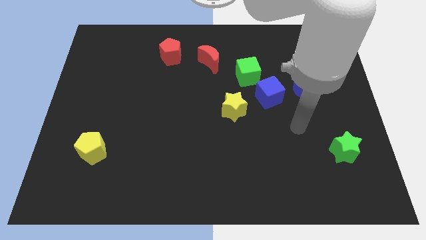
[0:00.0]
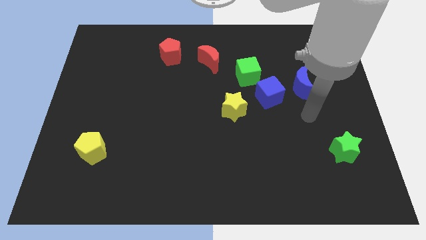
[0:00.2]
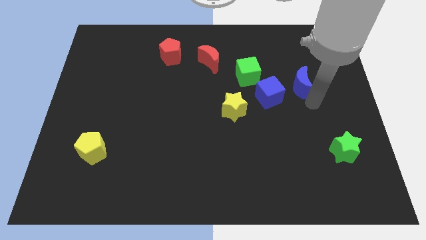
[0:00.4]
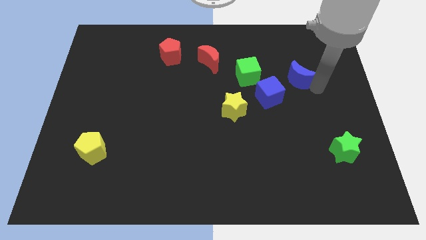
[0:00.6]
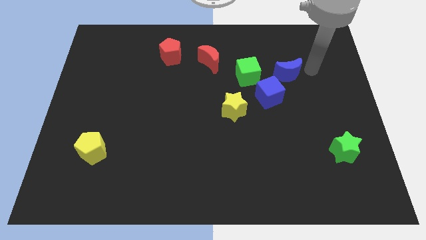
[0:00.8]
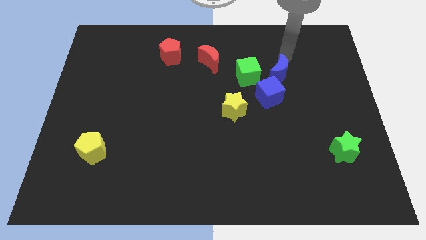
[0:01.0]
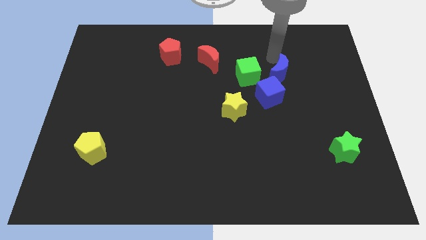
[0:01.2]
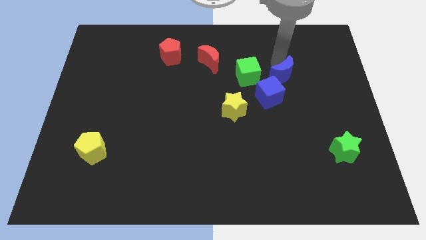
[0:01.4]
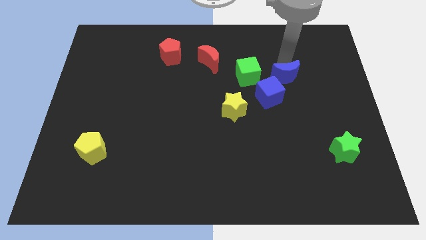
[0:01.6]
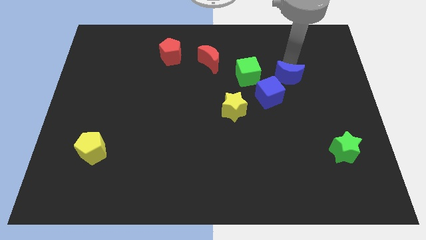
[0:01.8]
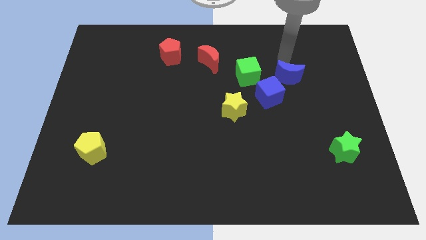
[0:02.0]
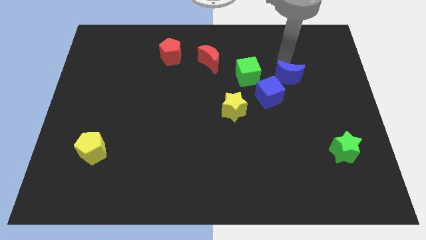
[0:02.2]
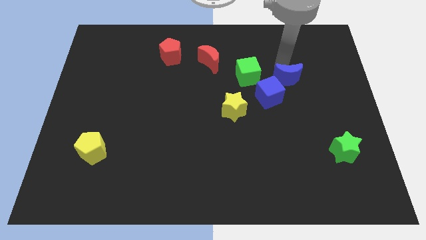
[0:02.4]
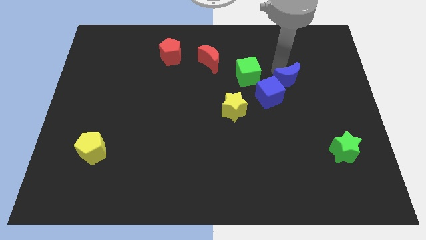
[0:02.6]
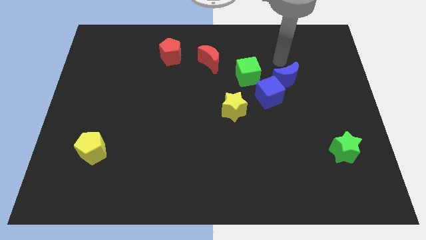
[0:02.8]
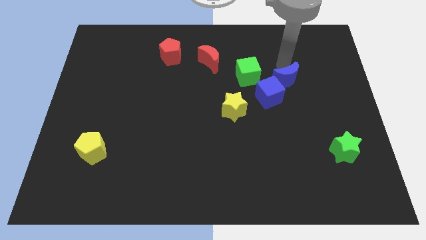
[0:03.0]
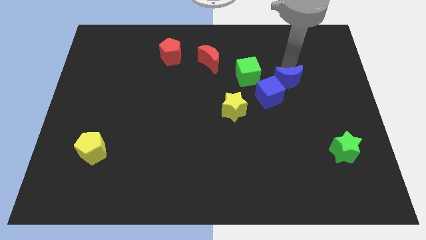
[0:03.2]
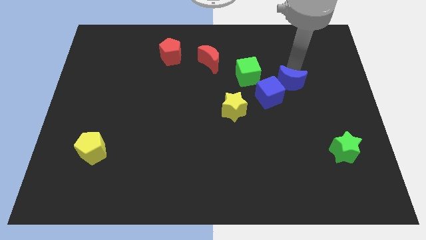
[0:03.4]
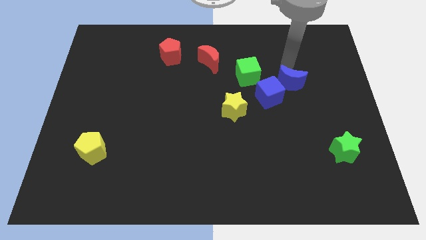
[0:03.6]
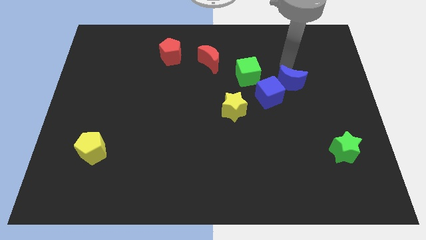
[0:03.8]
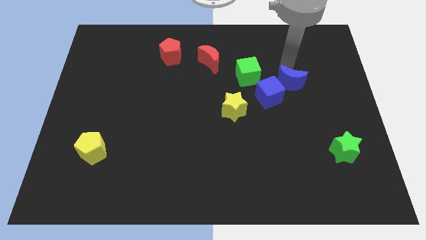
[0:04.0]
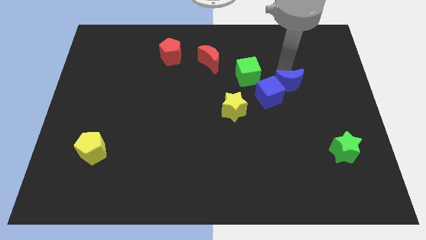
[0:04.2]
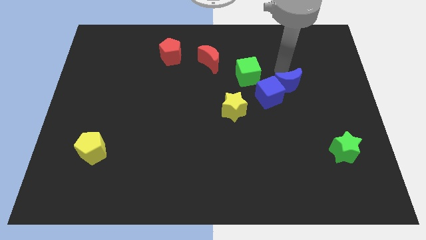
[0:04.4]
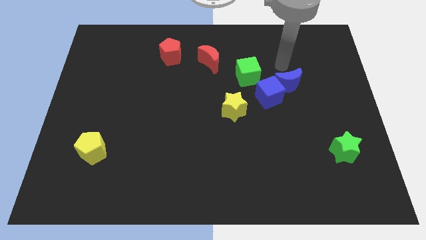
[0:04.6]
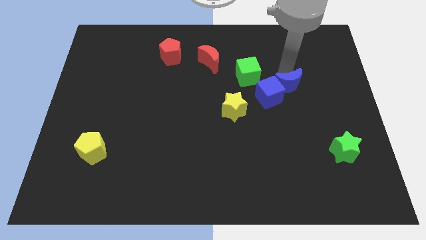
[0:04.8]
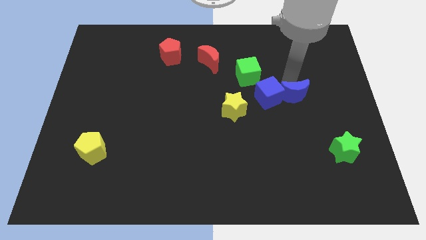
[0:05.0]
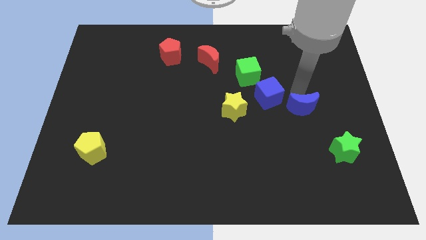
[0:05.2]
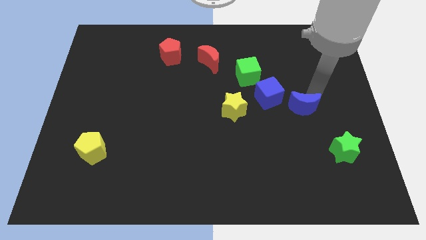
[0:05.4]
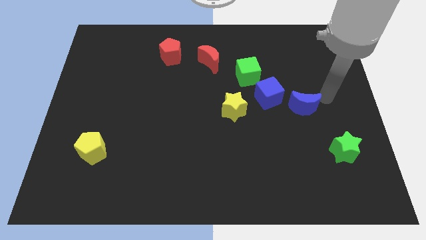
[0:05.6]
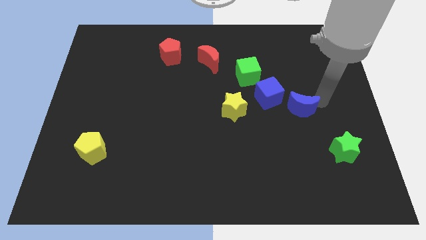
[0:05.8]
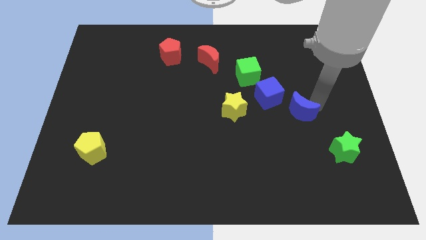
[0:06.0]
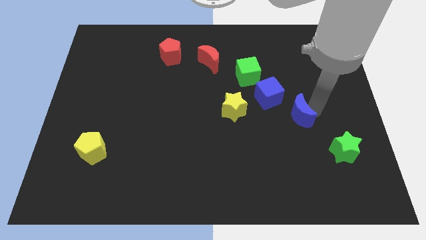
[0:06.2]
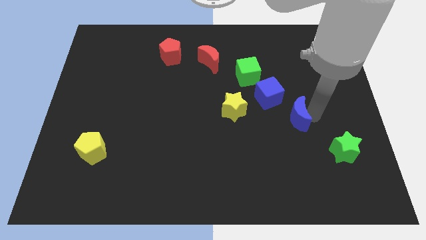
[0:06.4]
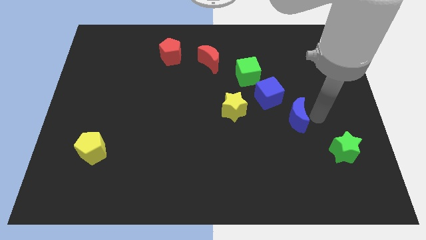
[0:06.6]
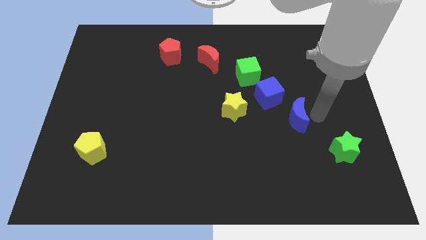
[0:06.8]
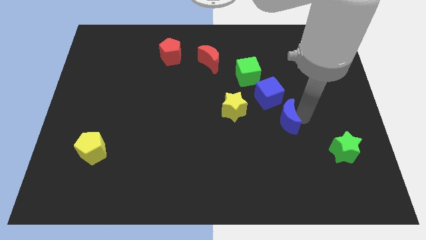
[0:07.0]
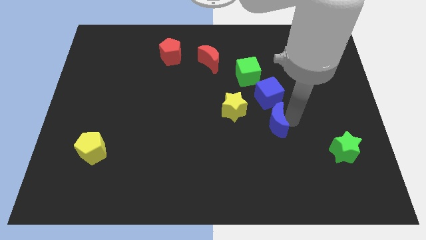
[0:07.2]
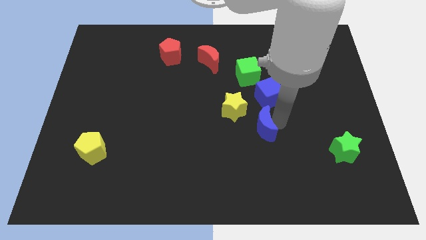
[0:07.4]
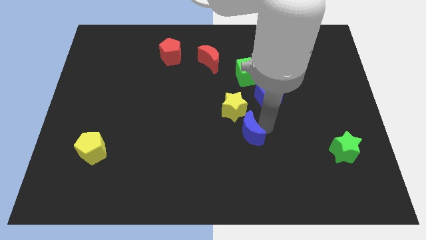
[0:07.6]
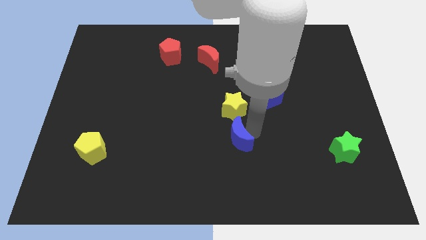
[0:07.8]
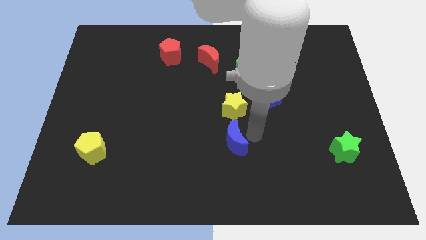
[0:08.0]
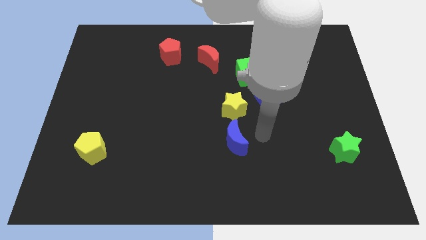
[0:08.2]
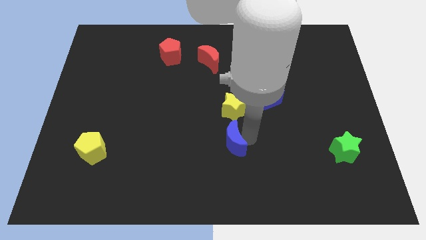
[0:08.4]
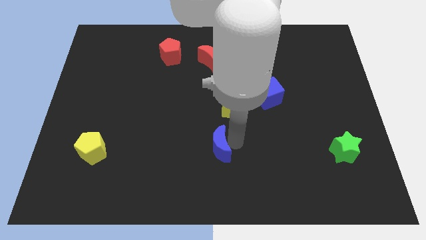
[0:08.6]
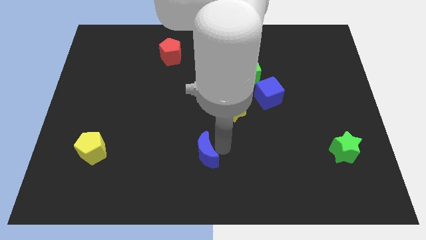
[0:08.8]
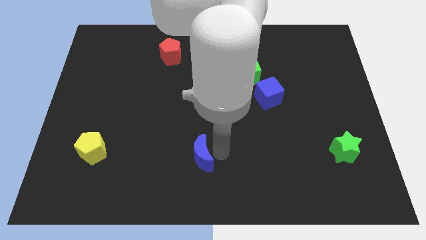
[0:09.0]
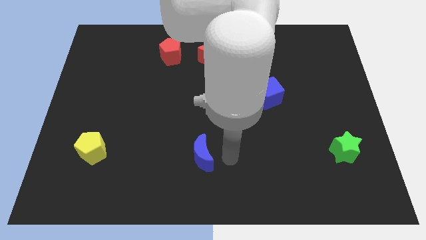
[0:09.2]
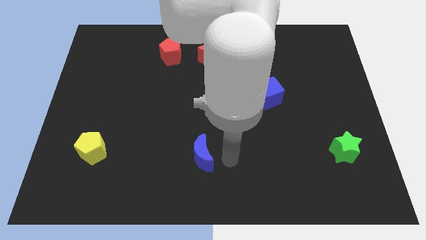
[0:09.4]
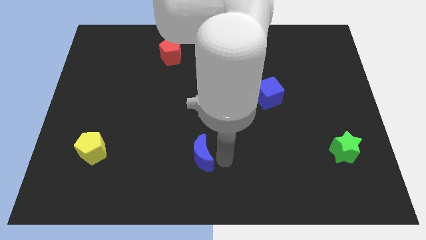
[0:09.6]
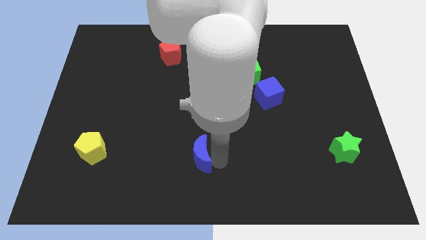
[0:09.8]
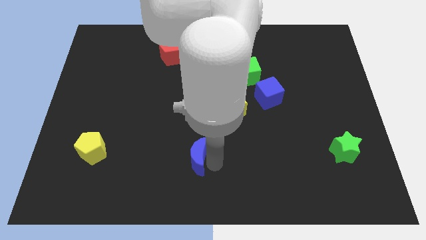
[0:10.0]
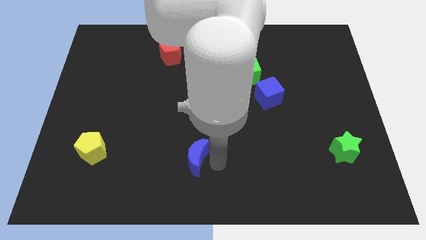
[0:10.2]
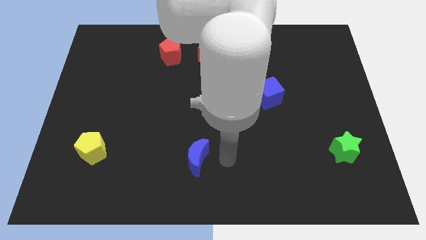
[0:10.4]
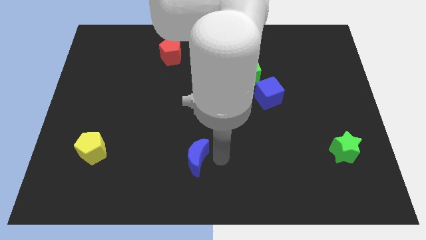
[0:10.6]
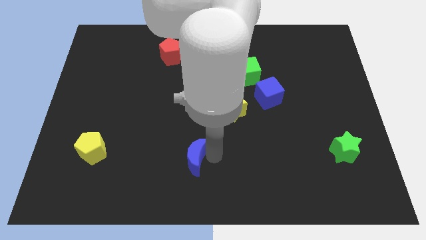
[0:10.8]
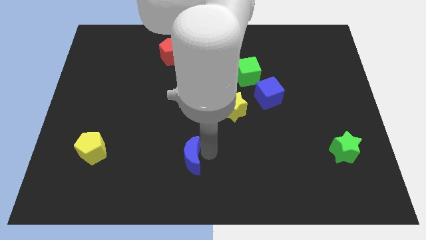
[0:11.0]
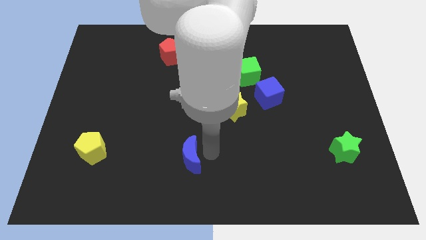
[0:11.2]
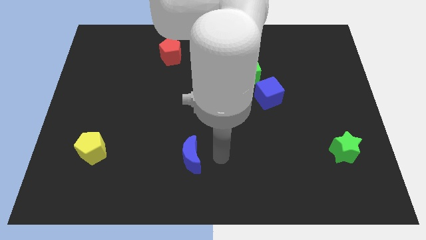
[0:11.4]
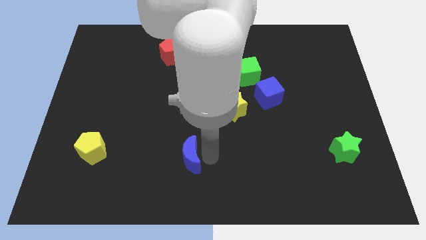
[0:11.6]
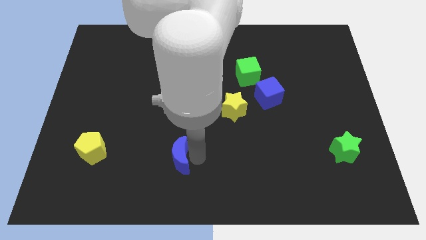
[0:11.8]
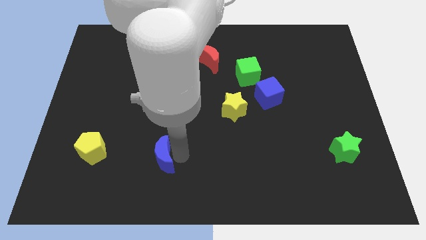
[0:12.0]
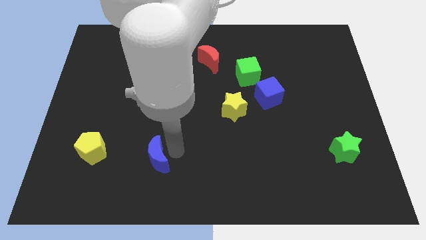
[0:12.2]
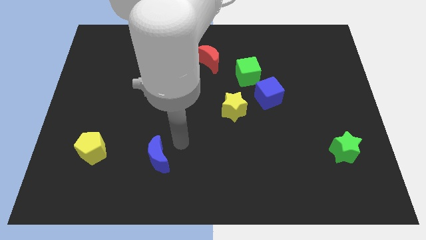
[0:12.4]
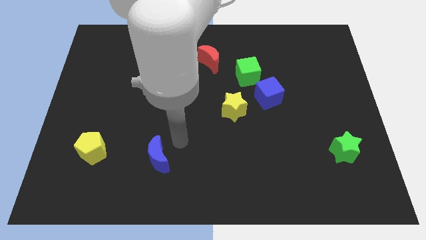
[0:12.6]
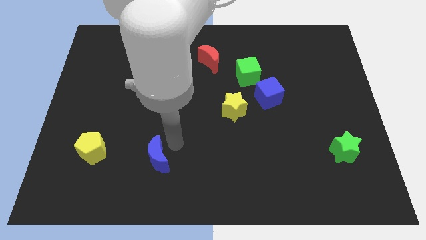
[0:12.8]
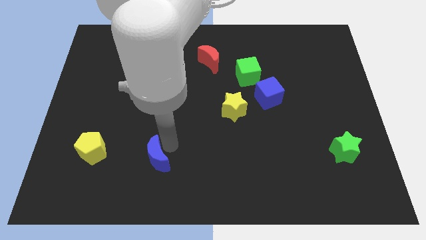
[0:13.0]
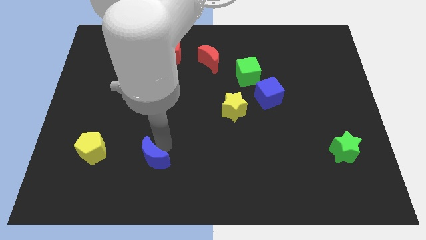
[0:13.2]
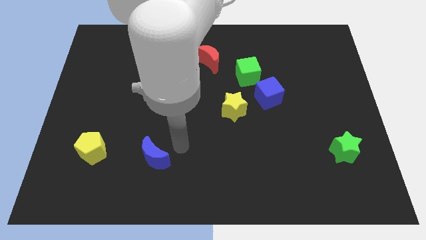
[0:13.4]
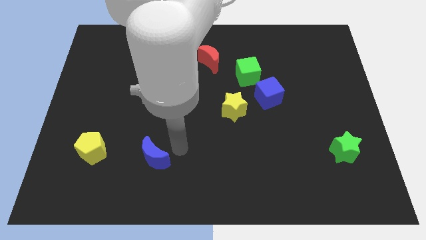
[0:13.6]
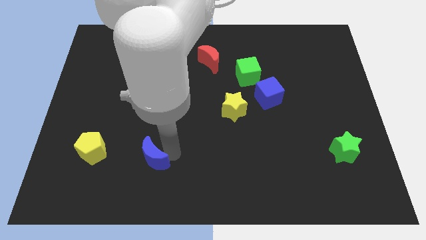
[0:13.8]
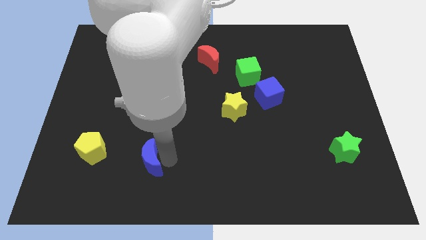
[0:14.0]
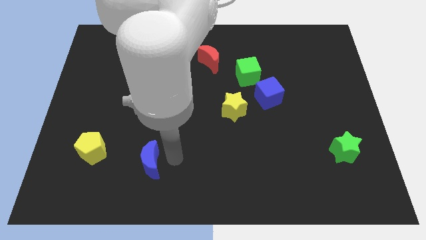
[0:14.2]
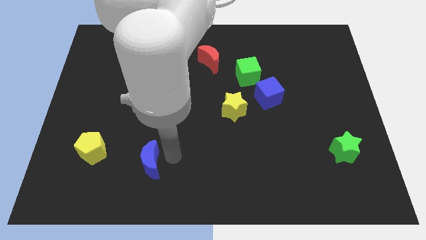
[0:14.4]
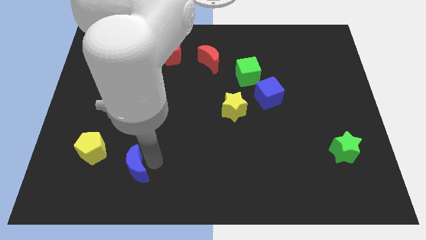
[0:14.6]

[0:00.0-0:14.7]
put the blue moon diagonally down and to the right of the yellow pentagon

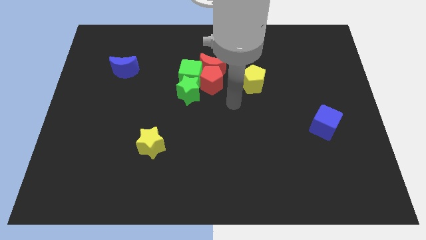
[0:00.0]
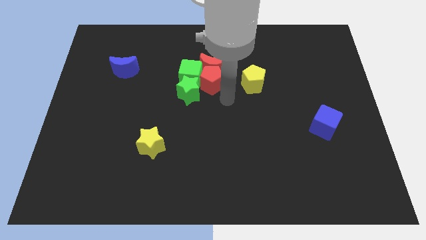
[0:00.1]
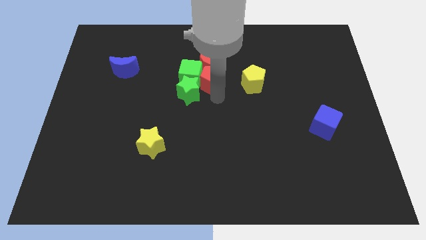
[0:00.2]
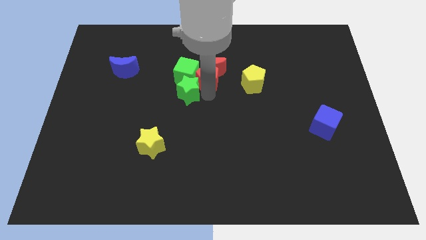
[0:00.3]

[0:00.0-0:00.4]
put the red pentagon to the top side of the green star
